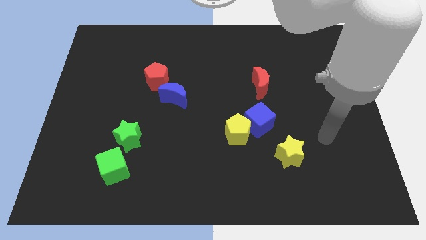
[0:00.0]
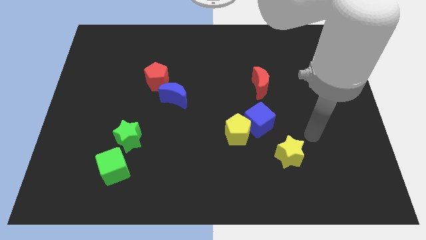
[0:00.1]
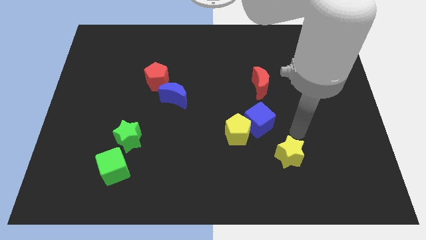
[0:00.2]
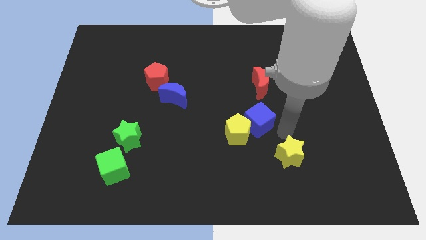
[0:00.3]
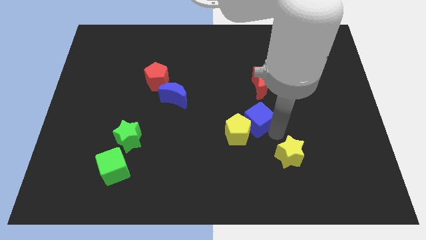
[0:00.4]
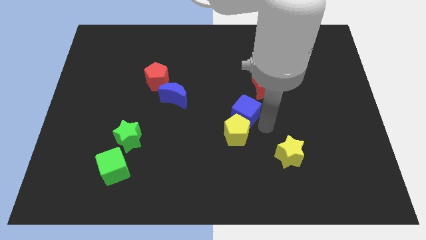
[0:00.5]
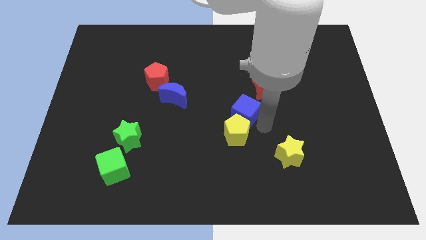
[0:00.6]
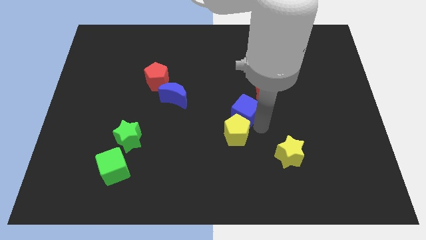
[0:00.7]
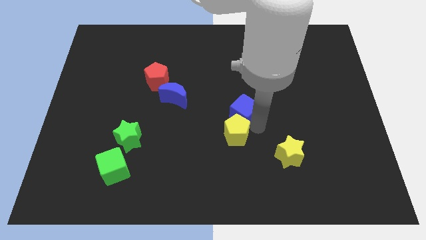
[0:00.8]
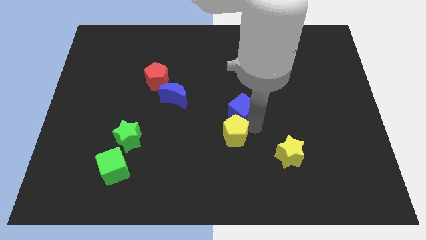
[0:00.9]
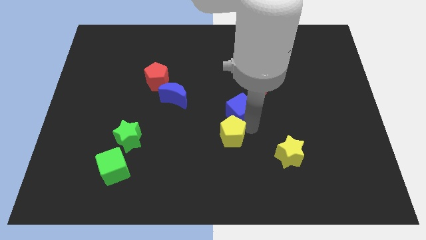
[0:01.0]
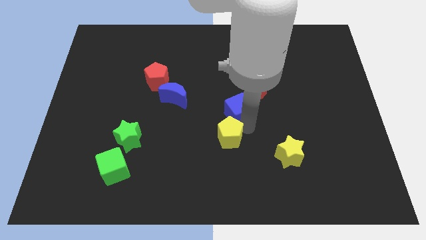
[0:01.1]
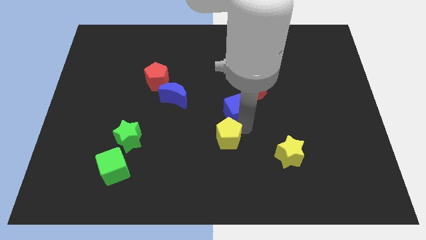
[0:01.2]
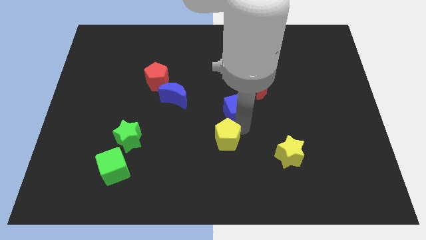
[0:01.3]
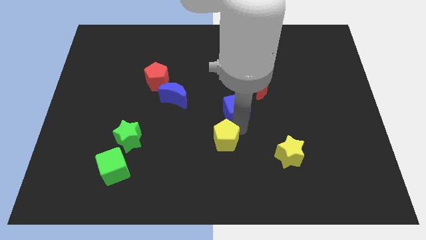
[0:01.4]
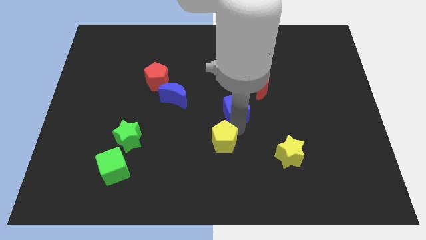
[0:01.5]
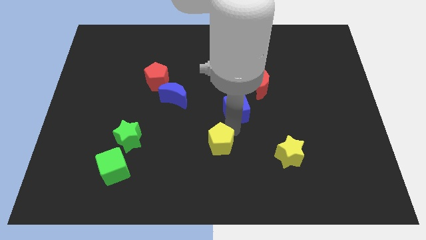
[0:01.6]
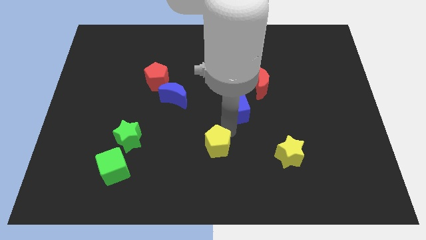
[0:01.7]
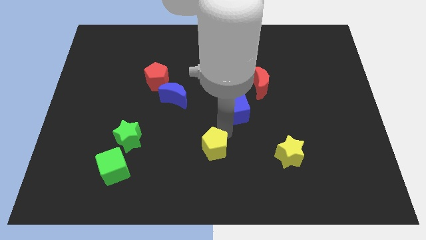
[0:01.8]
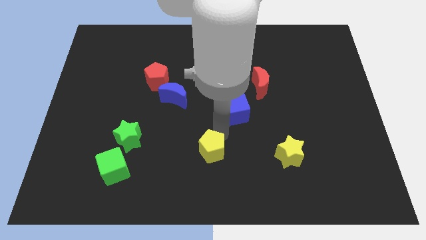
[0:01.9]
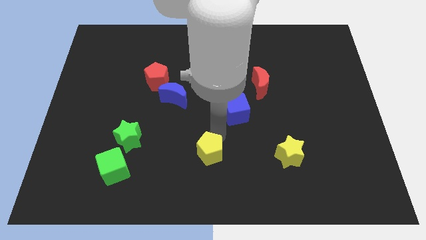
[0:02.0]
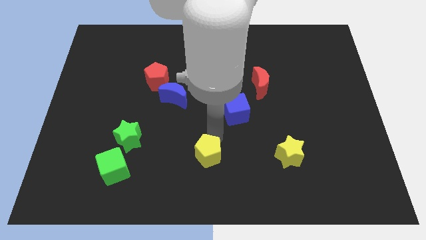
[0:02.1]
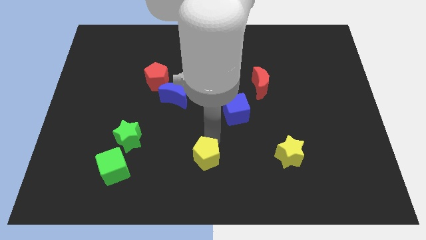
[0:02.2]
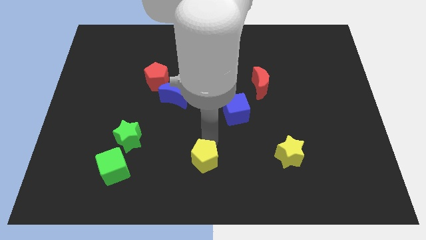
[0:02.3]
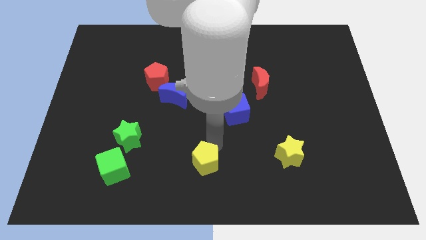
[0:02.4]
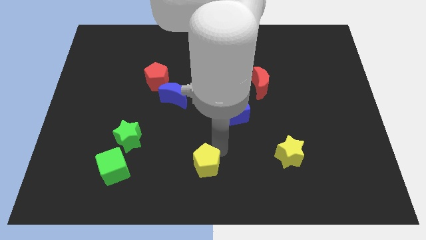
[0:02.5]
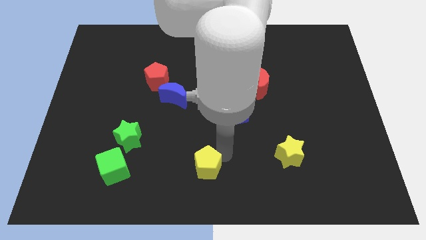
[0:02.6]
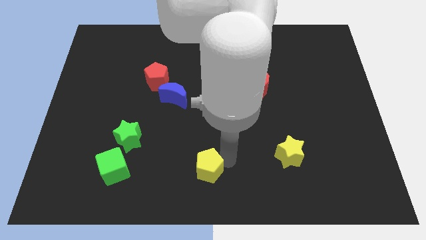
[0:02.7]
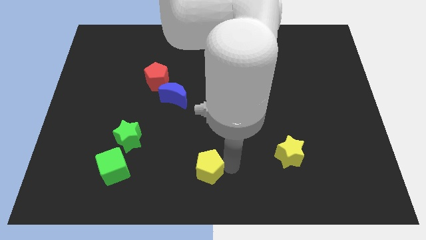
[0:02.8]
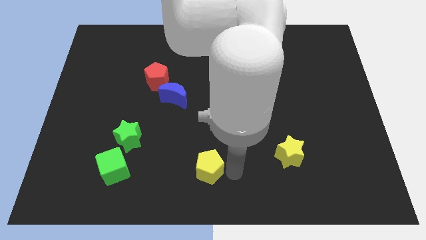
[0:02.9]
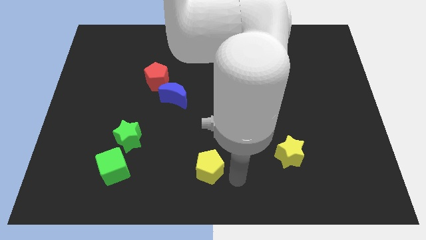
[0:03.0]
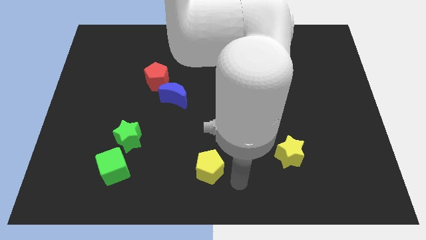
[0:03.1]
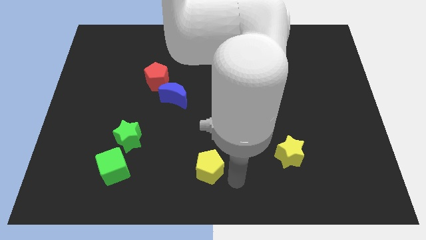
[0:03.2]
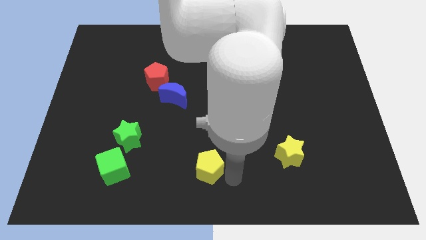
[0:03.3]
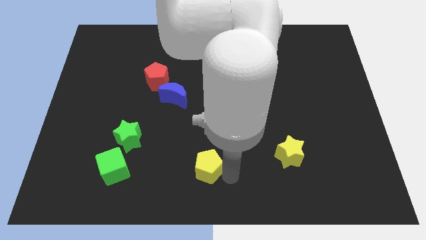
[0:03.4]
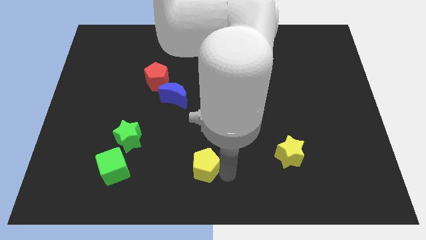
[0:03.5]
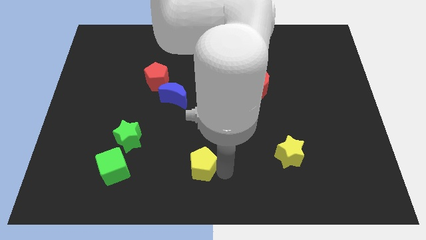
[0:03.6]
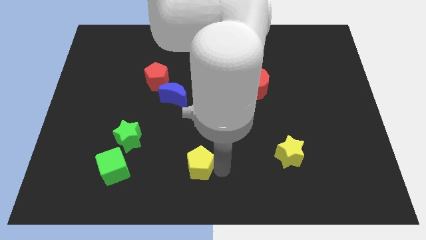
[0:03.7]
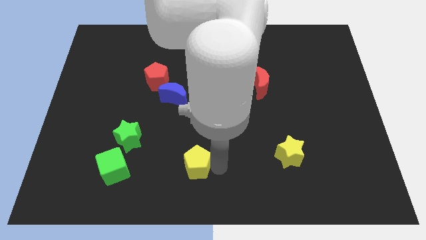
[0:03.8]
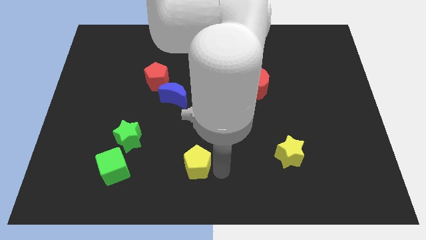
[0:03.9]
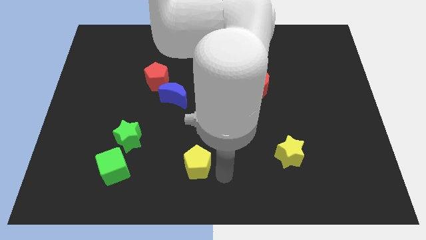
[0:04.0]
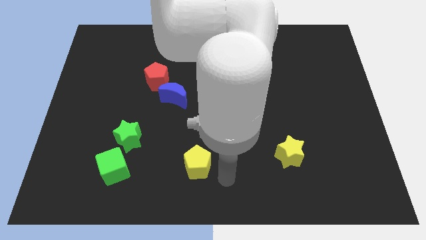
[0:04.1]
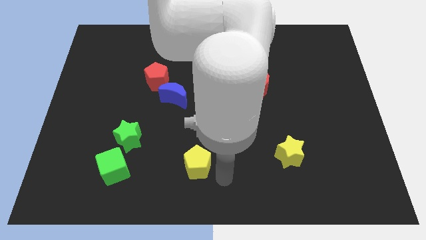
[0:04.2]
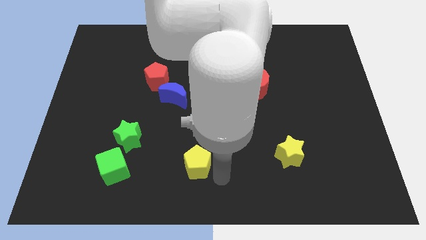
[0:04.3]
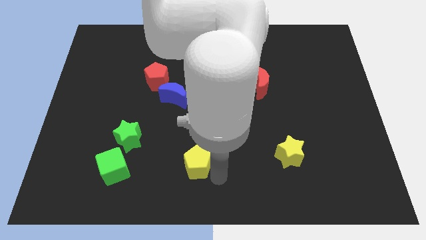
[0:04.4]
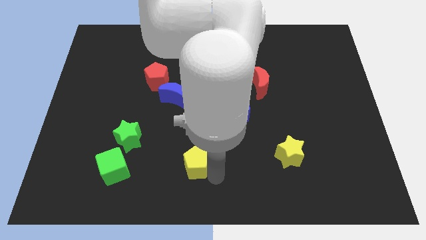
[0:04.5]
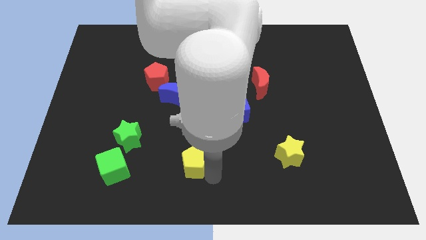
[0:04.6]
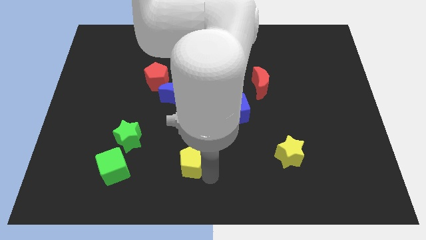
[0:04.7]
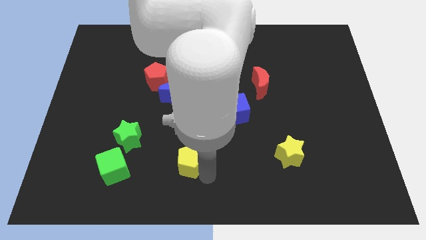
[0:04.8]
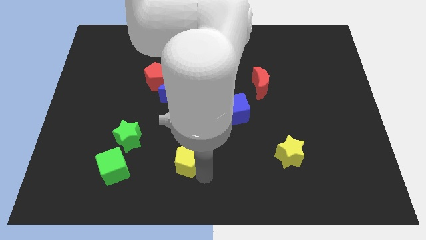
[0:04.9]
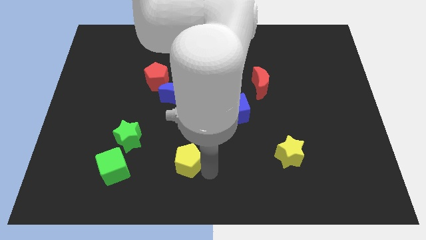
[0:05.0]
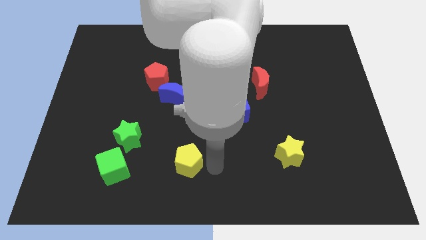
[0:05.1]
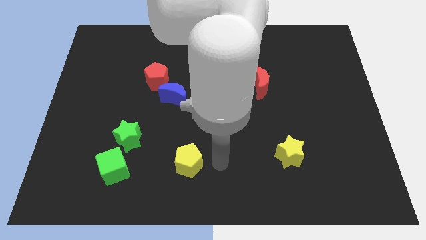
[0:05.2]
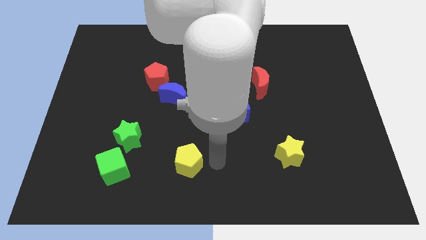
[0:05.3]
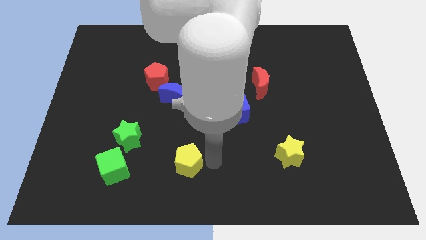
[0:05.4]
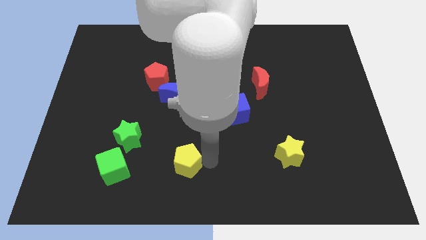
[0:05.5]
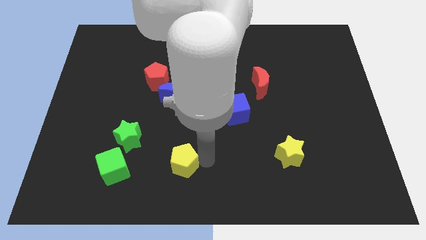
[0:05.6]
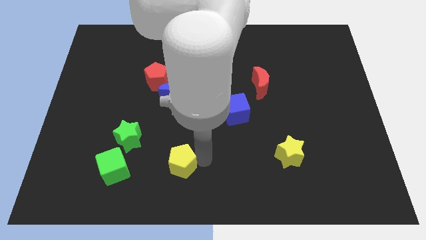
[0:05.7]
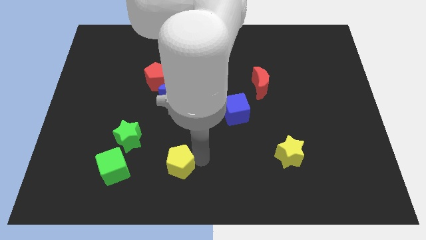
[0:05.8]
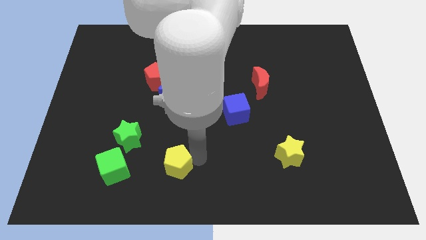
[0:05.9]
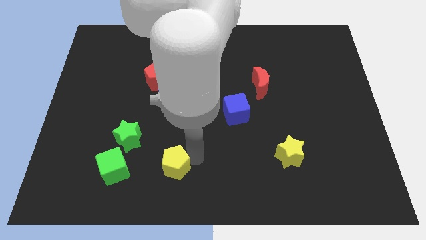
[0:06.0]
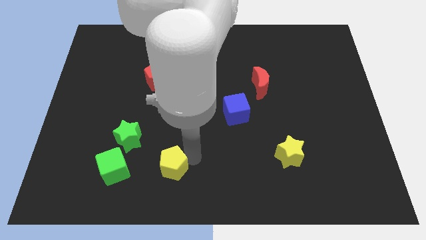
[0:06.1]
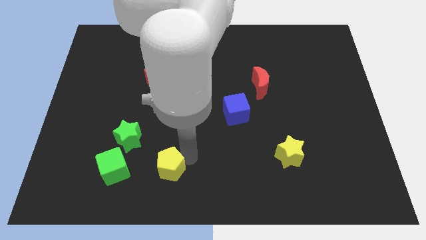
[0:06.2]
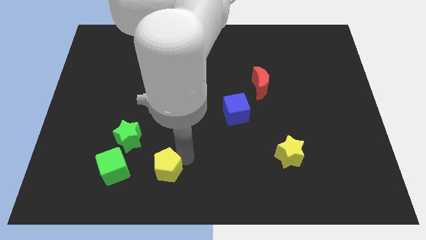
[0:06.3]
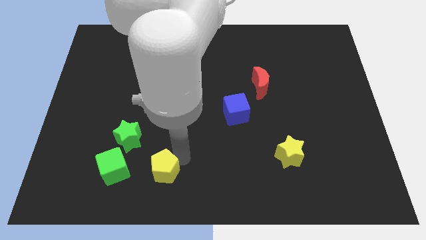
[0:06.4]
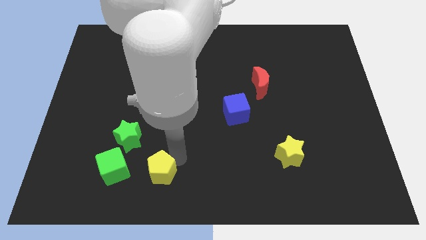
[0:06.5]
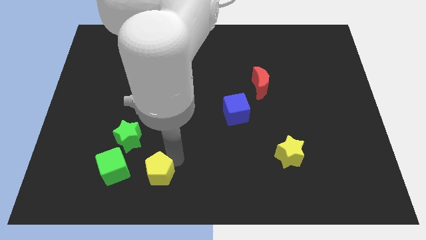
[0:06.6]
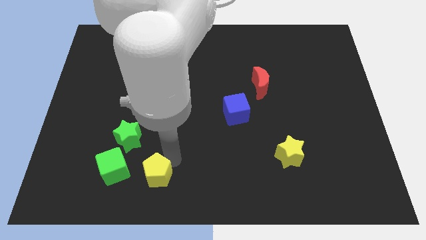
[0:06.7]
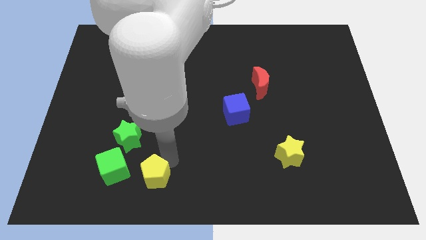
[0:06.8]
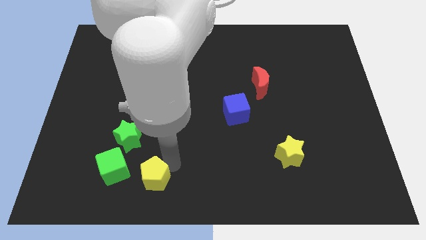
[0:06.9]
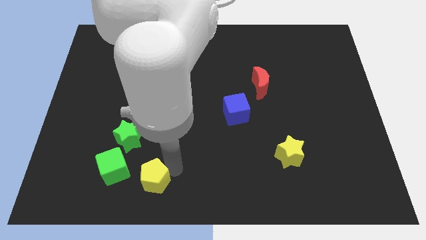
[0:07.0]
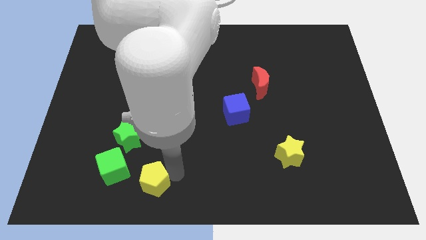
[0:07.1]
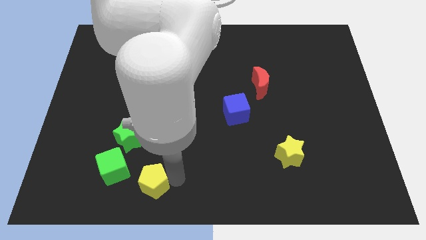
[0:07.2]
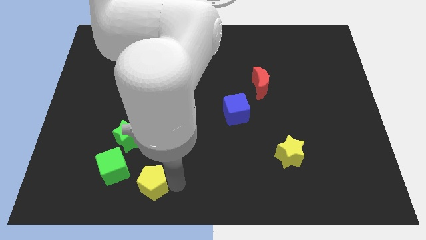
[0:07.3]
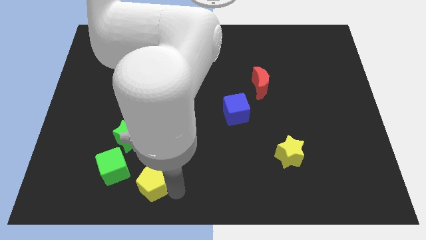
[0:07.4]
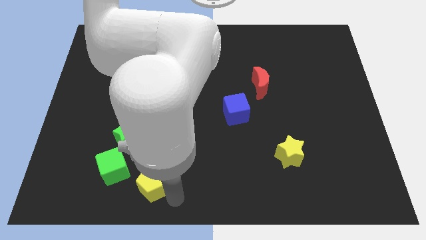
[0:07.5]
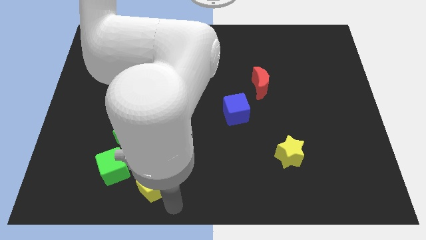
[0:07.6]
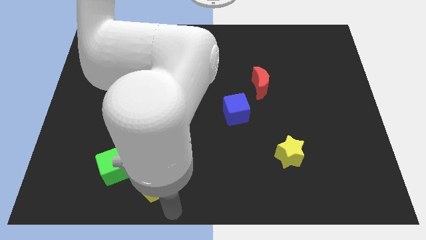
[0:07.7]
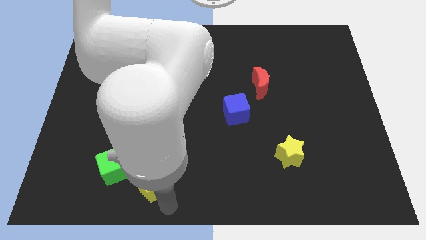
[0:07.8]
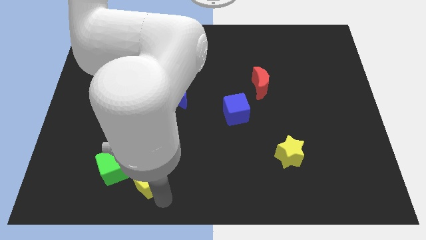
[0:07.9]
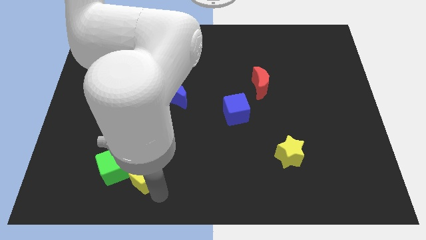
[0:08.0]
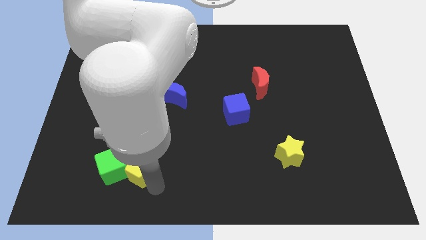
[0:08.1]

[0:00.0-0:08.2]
push the yellow pentagon next to the green cube
